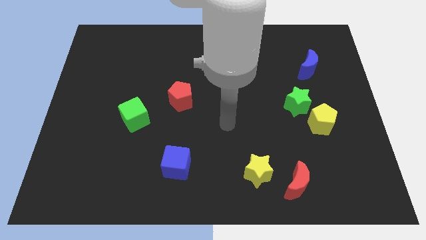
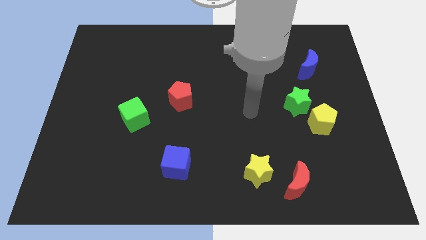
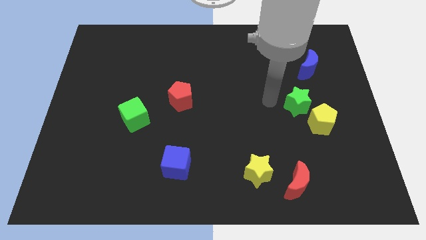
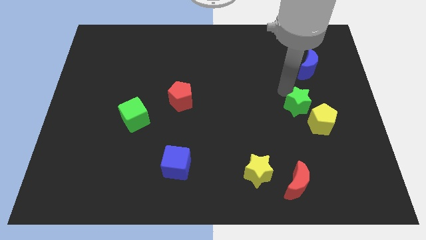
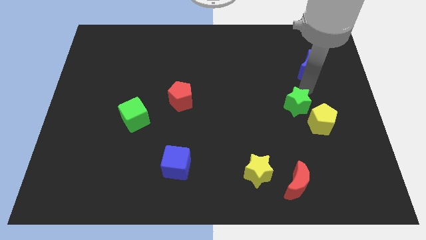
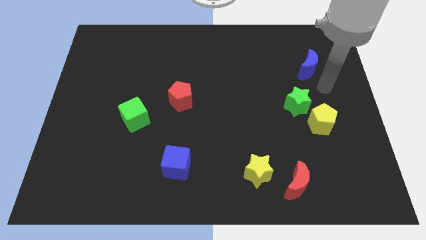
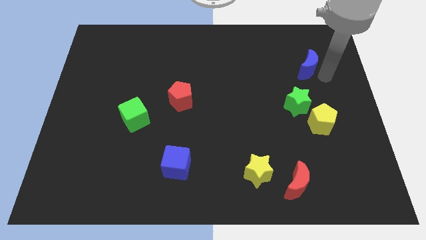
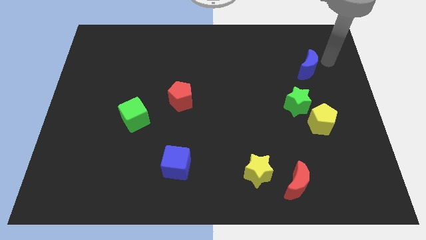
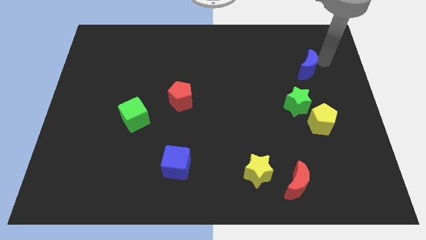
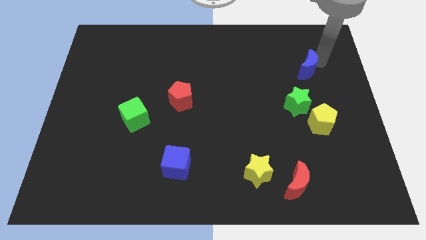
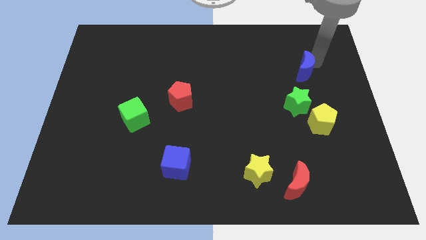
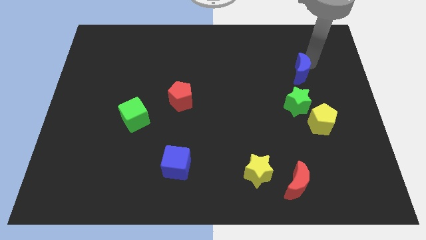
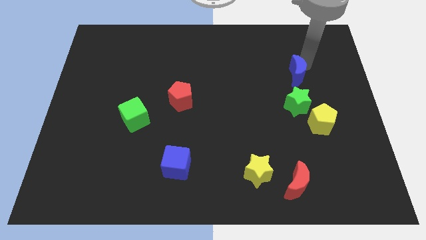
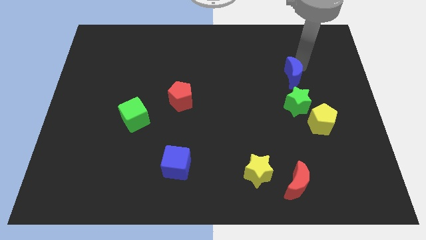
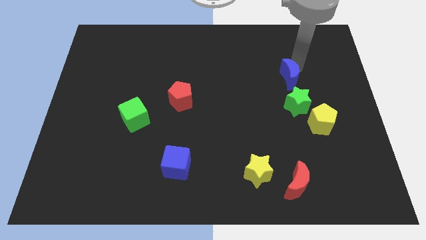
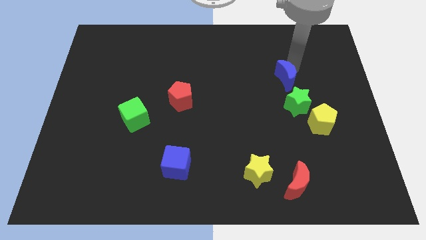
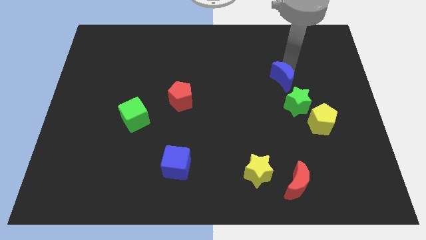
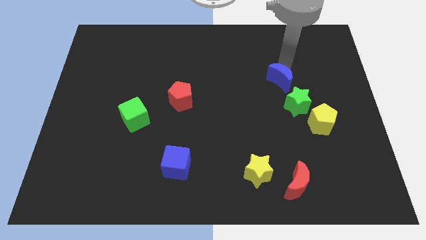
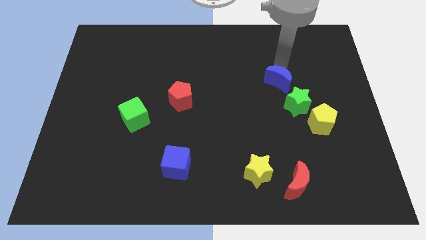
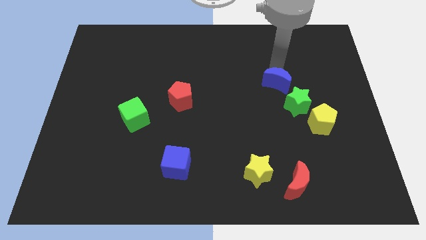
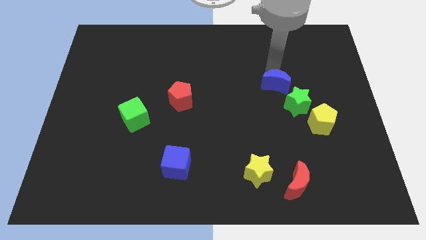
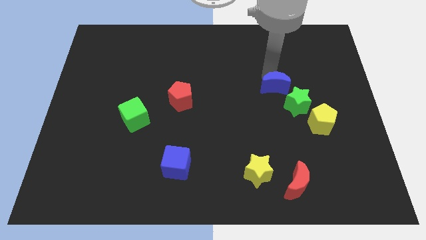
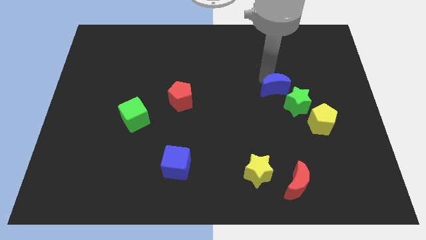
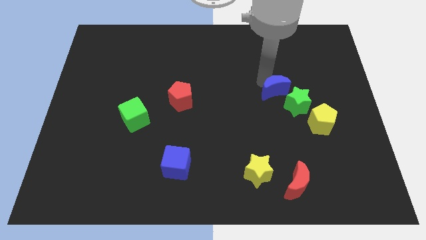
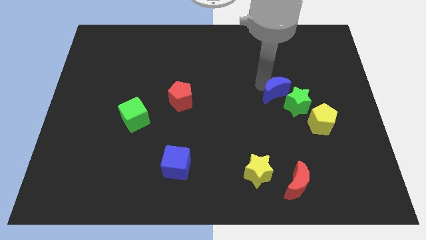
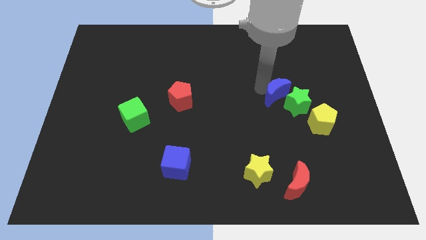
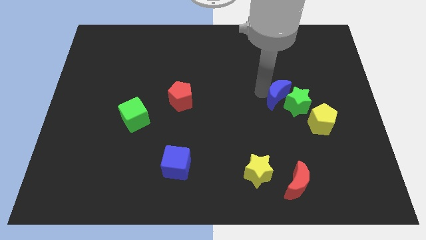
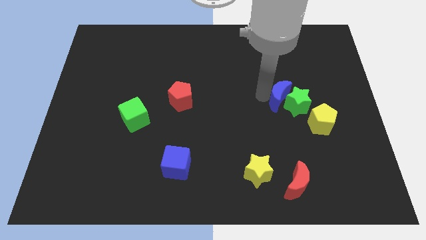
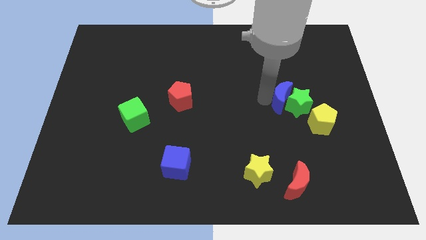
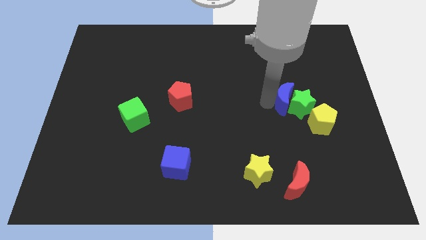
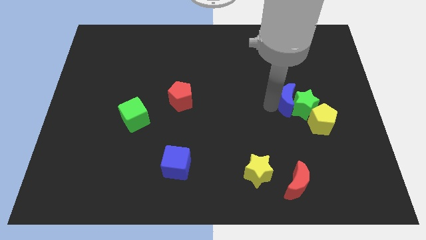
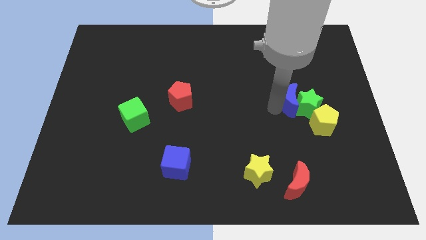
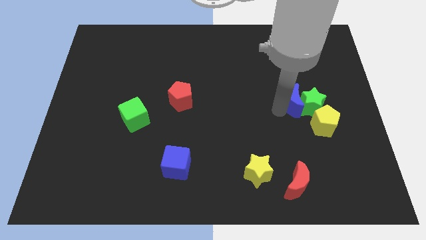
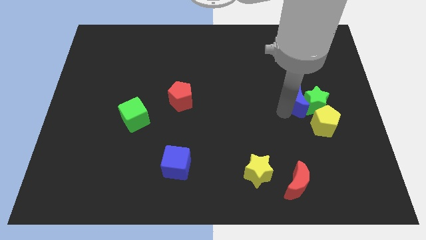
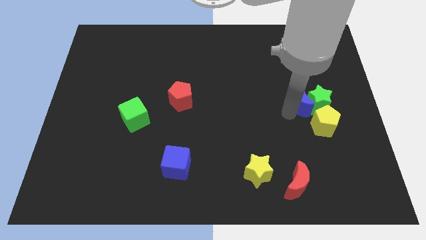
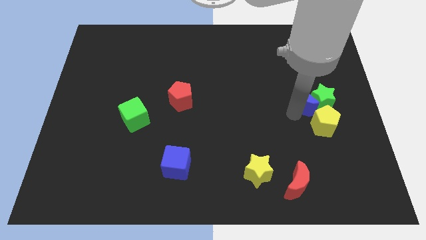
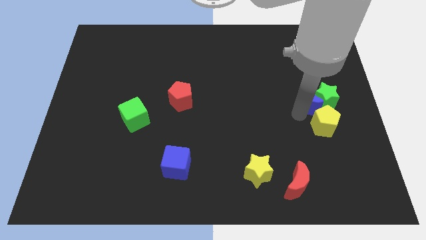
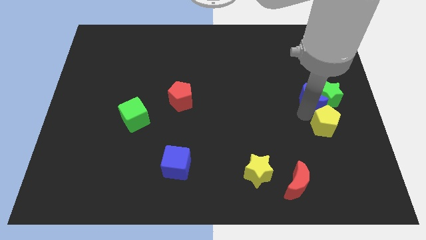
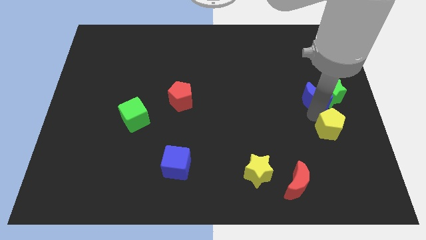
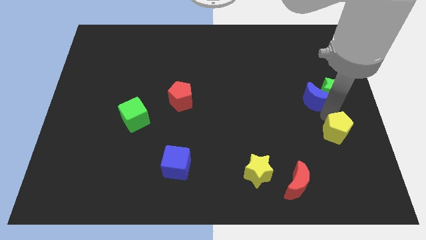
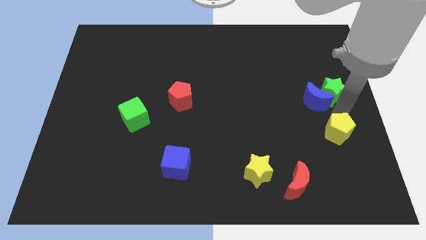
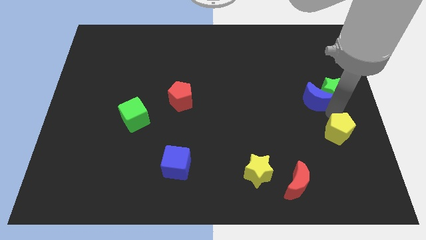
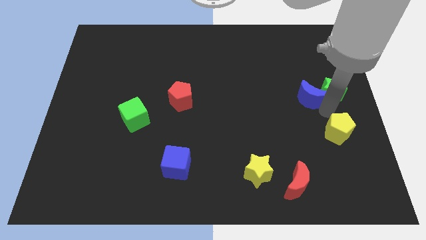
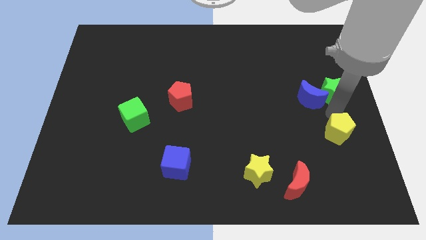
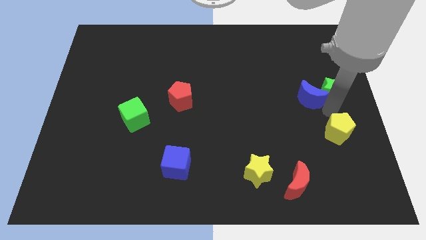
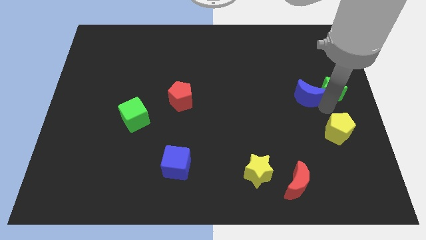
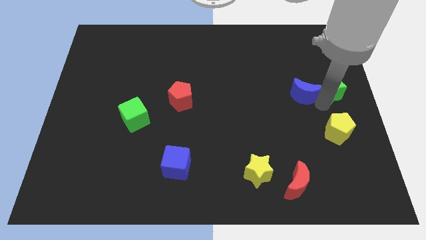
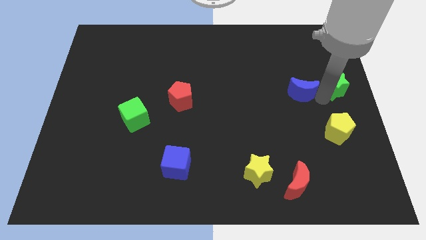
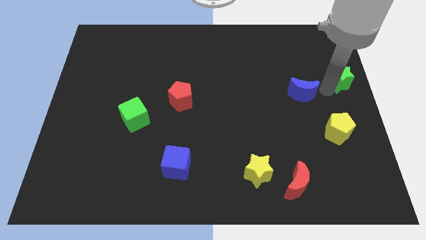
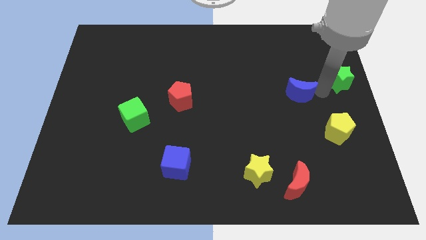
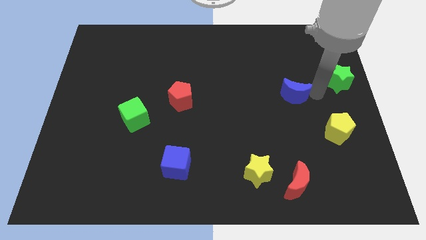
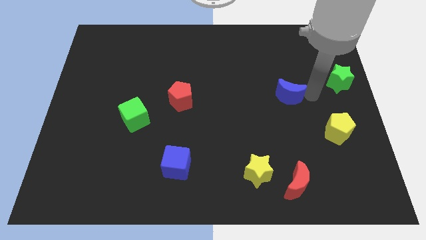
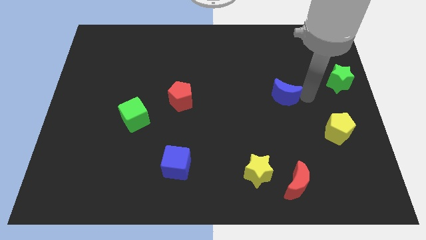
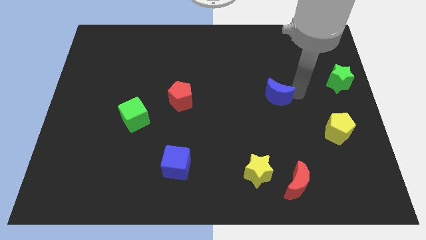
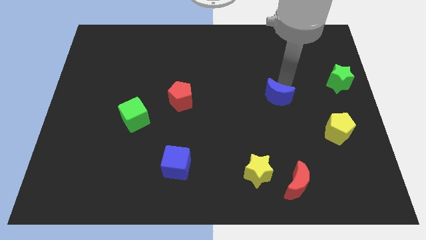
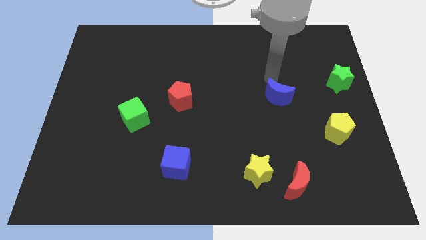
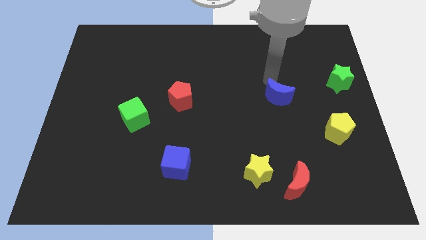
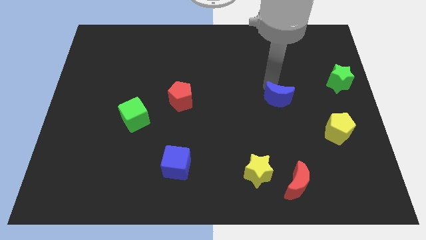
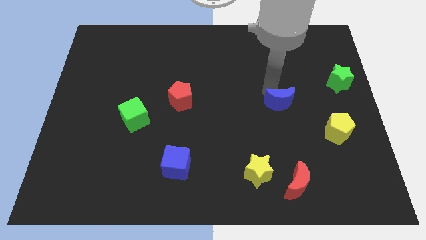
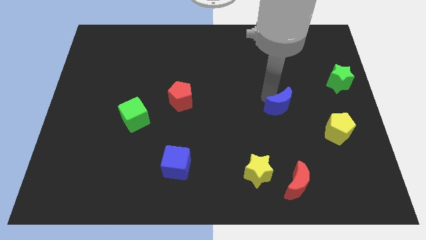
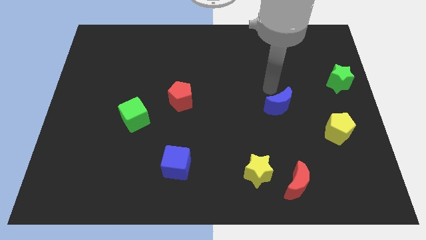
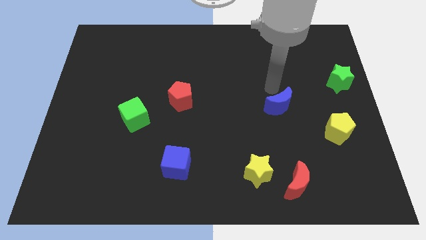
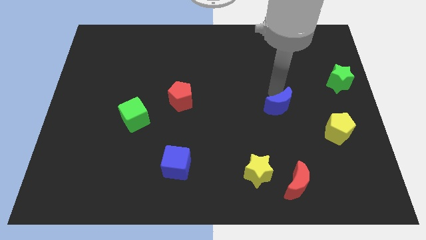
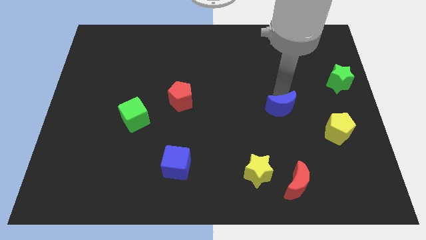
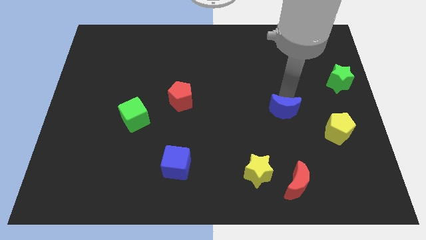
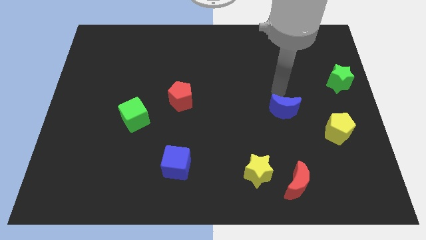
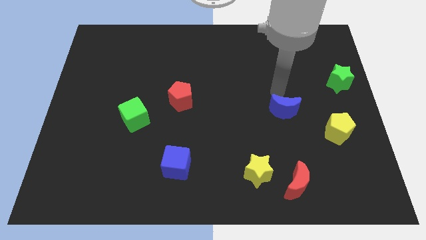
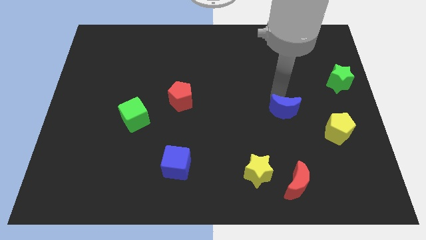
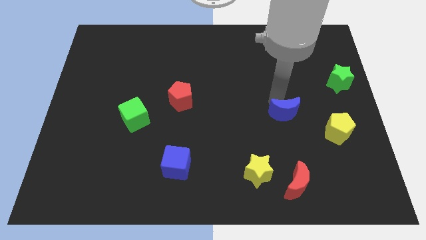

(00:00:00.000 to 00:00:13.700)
move the blue moon to the left side of the yellow pentagon
